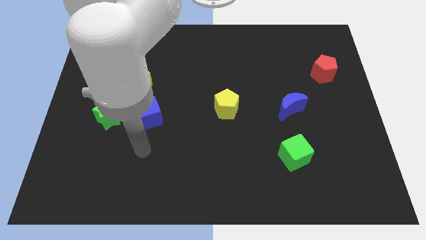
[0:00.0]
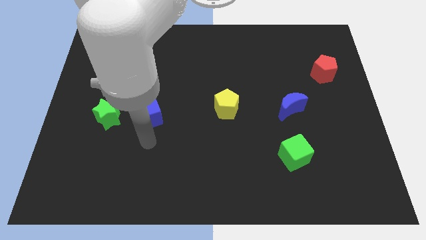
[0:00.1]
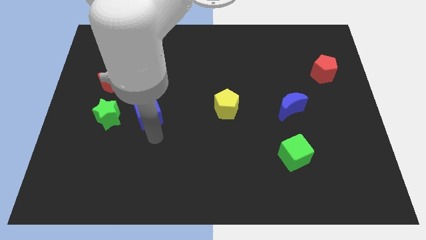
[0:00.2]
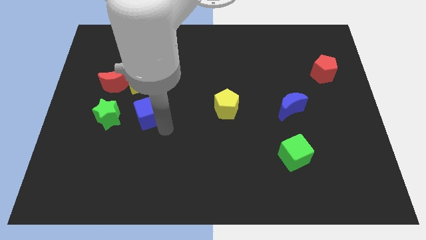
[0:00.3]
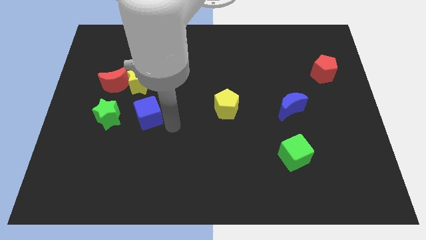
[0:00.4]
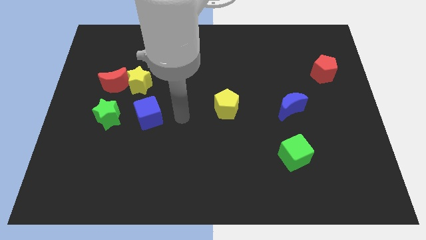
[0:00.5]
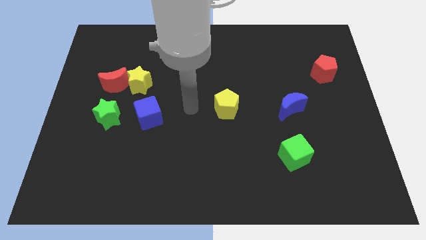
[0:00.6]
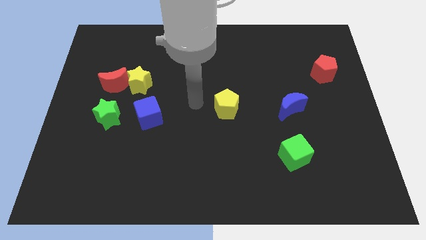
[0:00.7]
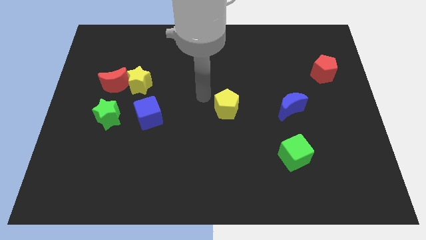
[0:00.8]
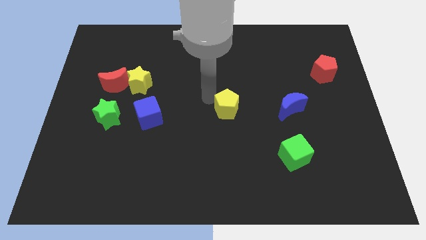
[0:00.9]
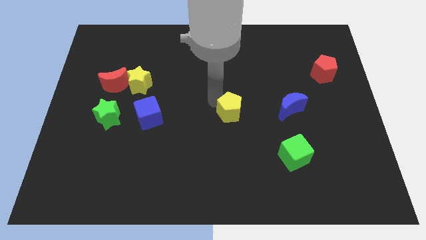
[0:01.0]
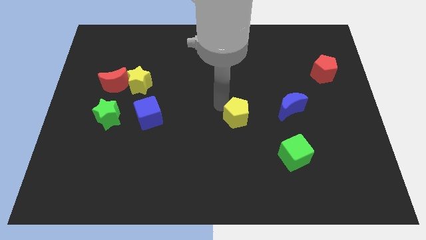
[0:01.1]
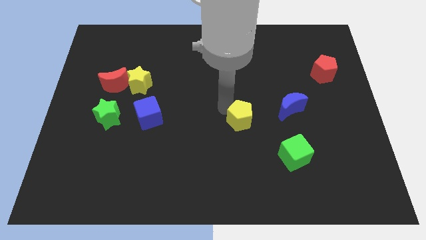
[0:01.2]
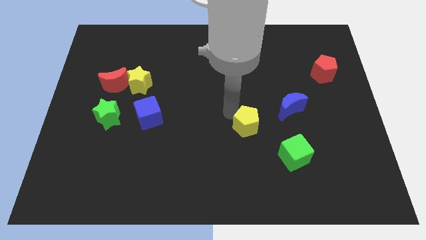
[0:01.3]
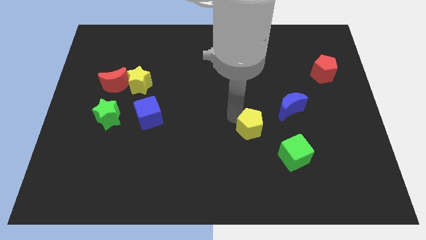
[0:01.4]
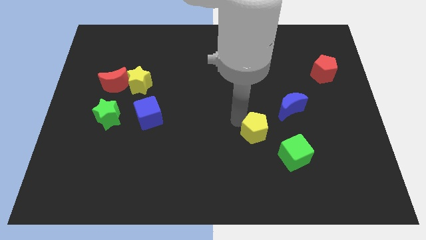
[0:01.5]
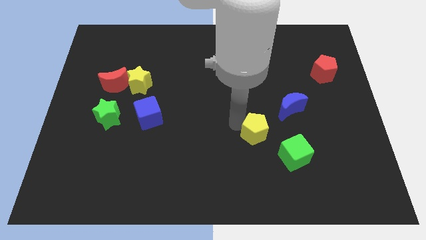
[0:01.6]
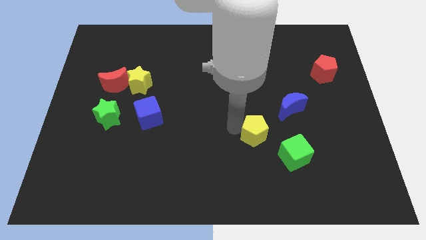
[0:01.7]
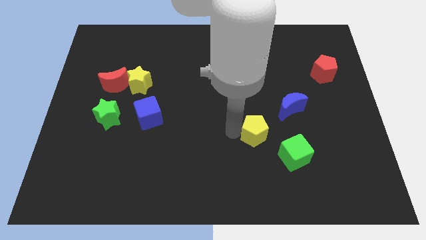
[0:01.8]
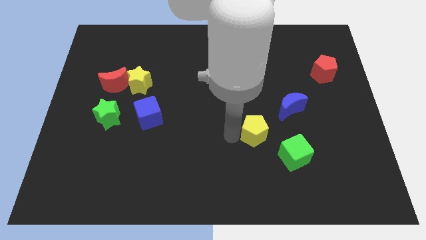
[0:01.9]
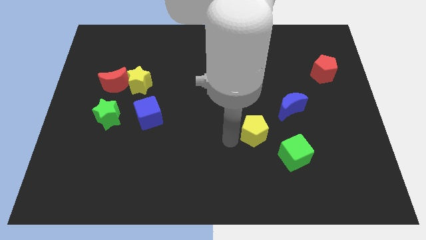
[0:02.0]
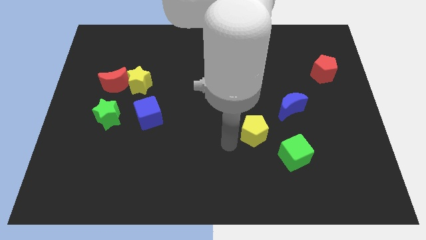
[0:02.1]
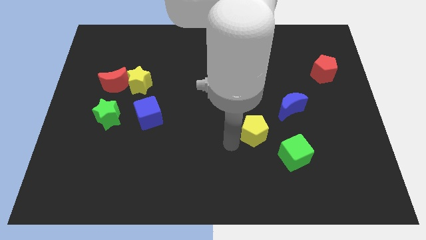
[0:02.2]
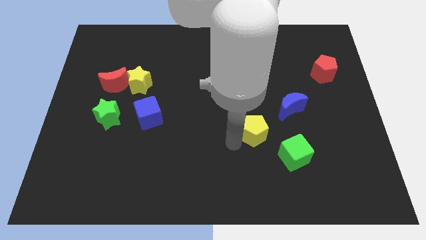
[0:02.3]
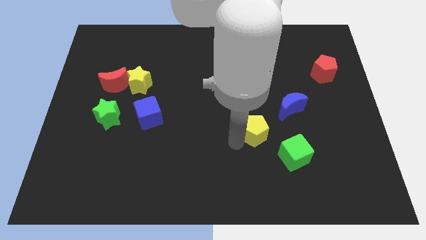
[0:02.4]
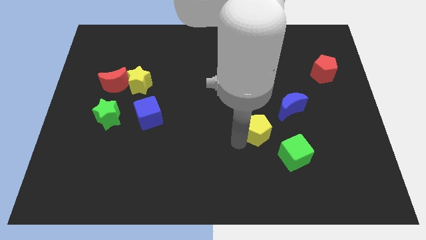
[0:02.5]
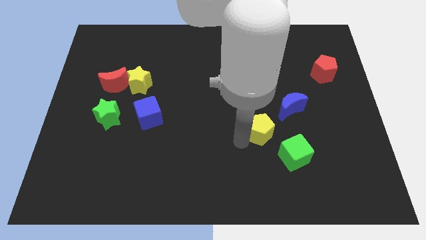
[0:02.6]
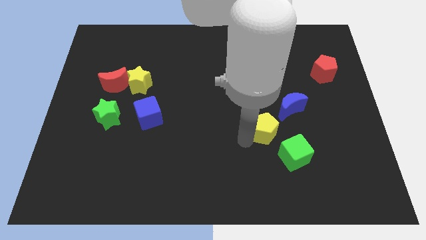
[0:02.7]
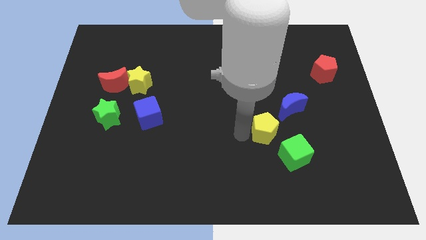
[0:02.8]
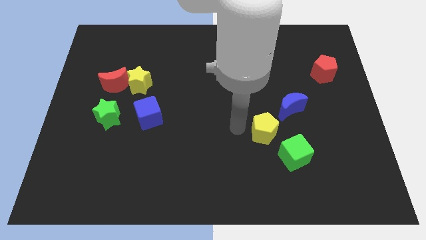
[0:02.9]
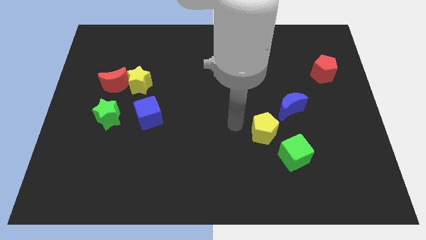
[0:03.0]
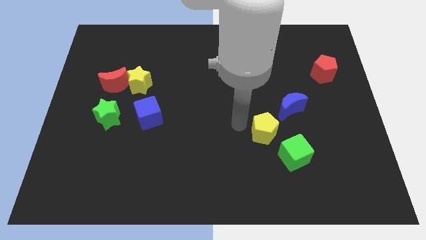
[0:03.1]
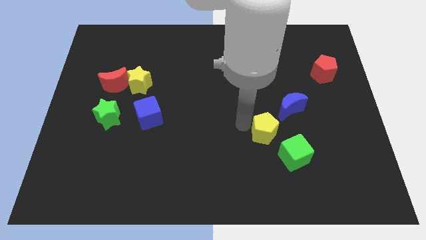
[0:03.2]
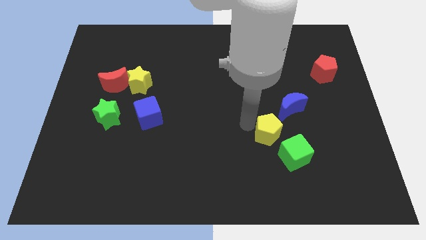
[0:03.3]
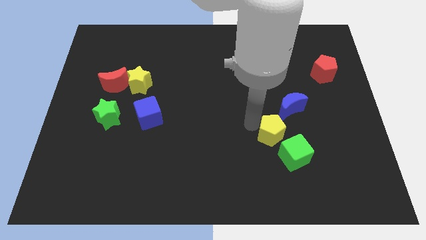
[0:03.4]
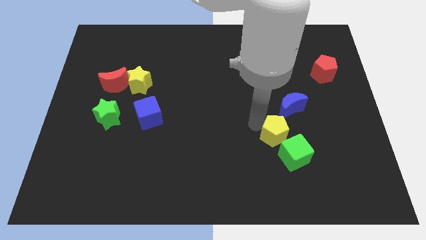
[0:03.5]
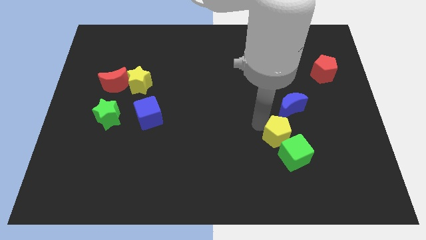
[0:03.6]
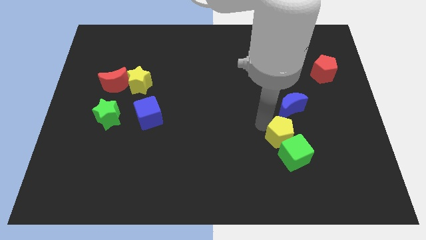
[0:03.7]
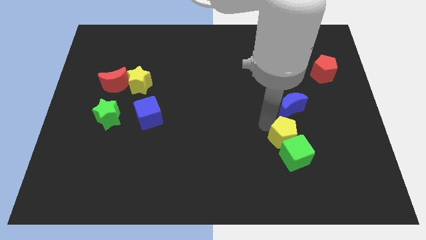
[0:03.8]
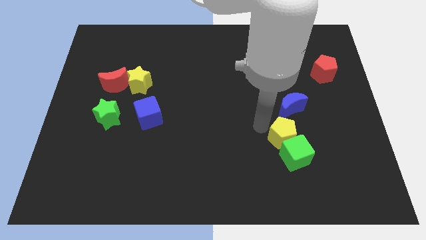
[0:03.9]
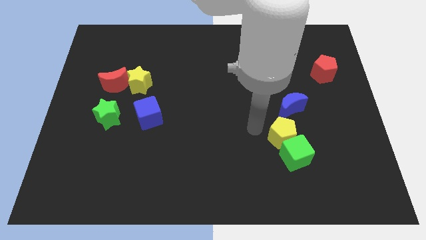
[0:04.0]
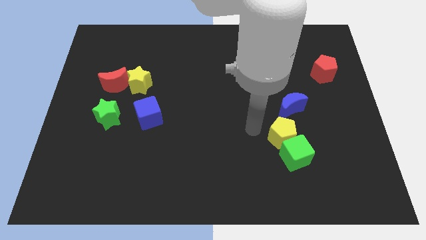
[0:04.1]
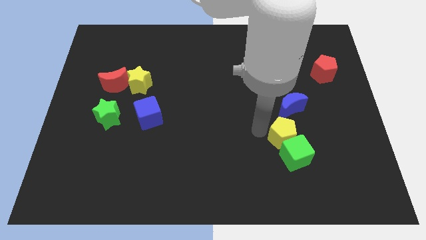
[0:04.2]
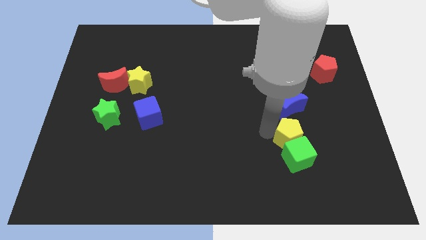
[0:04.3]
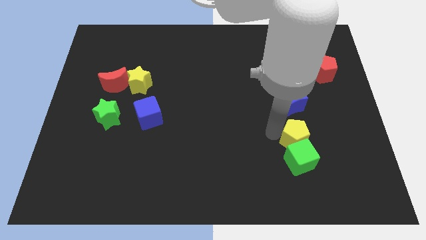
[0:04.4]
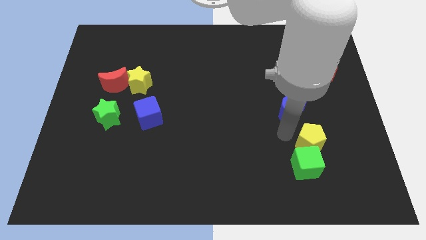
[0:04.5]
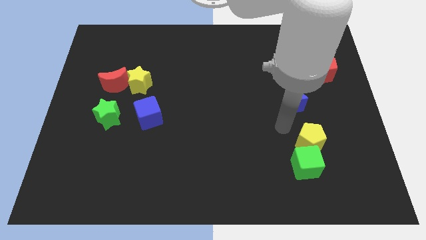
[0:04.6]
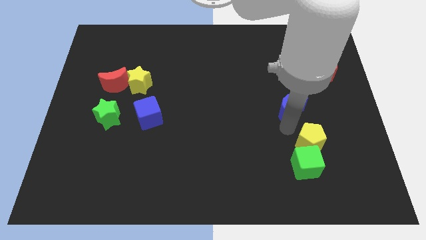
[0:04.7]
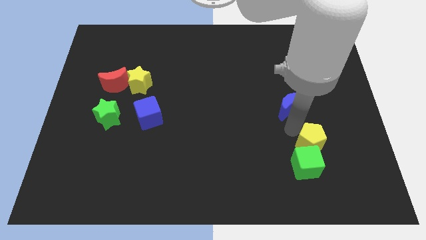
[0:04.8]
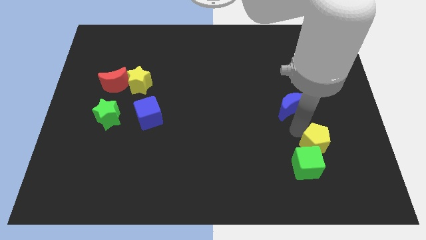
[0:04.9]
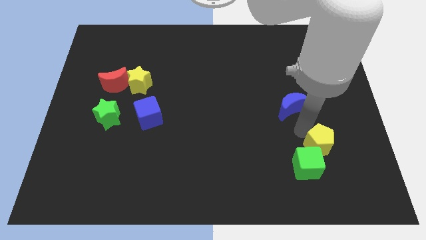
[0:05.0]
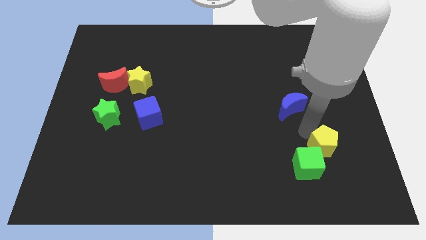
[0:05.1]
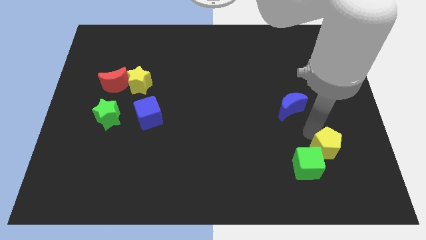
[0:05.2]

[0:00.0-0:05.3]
slide the yellow pentagon right of the green cube

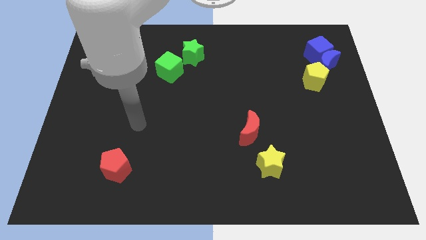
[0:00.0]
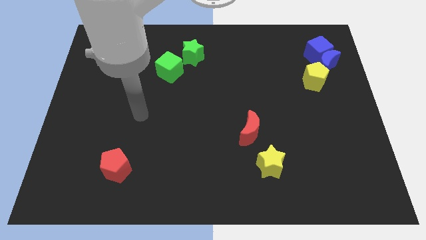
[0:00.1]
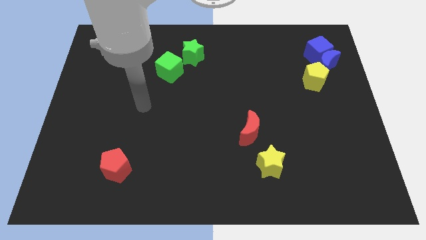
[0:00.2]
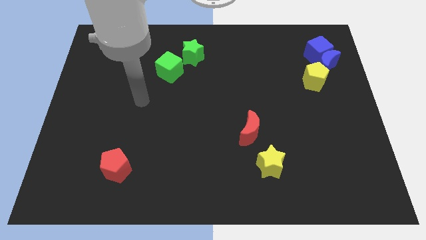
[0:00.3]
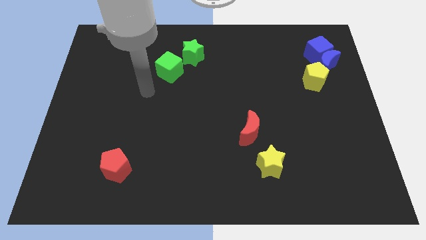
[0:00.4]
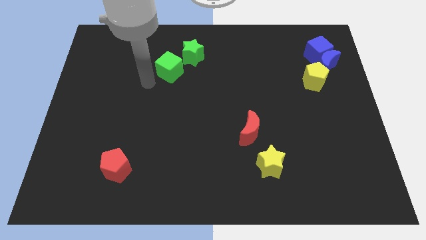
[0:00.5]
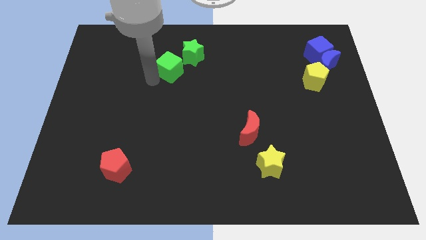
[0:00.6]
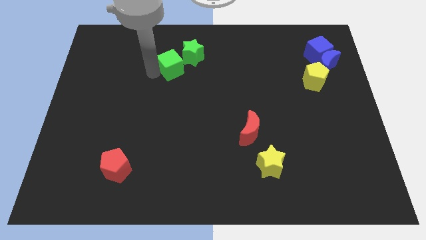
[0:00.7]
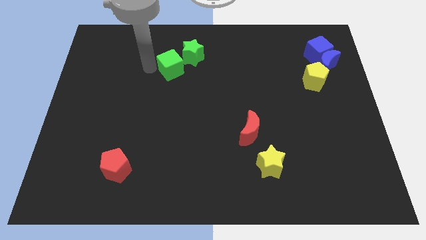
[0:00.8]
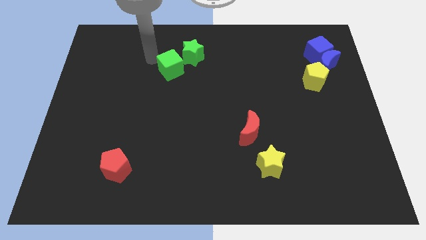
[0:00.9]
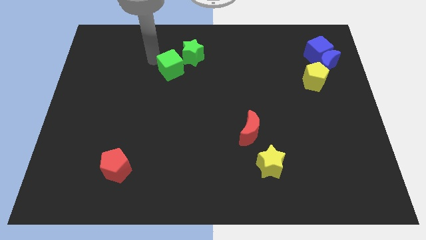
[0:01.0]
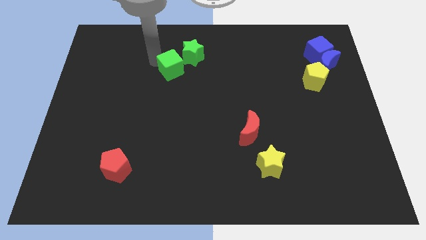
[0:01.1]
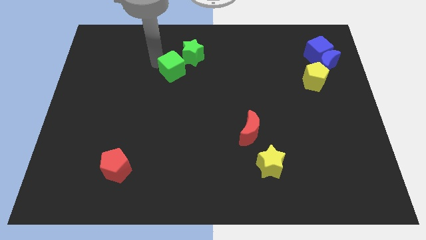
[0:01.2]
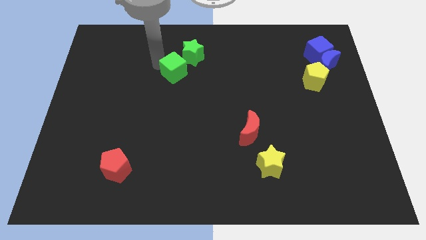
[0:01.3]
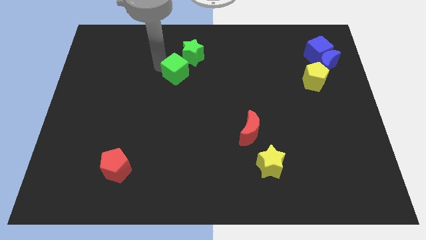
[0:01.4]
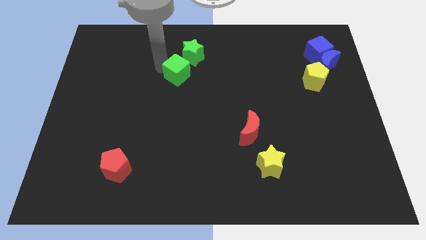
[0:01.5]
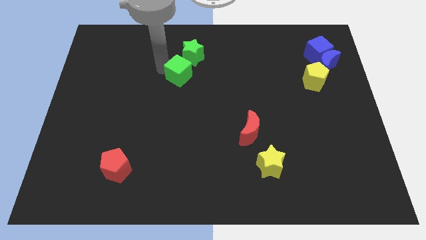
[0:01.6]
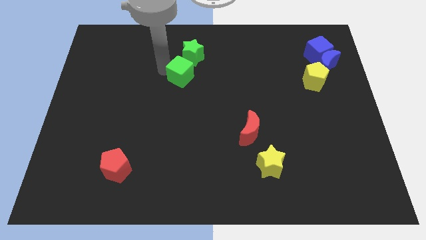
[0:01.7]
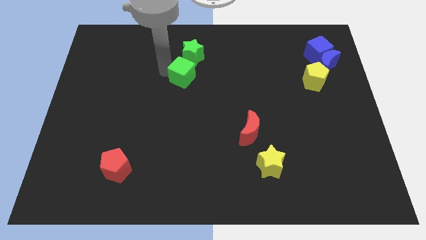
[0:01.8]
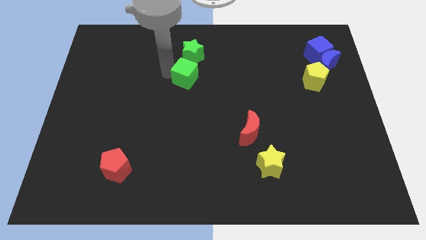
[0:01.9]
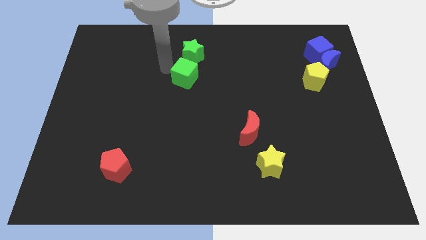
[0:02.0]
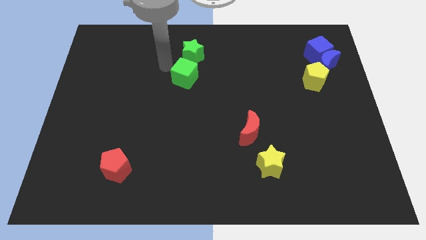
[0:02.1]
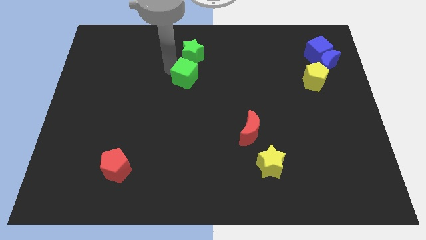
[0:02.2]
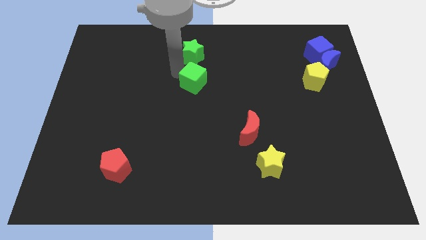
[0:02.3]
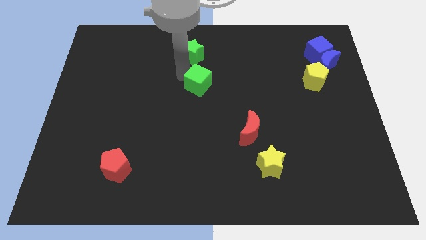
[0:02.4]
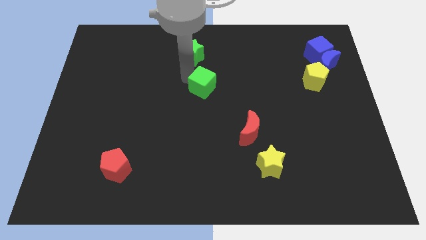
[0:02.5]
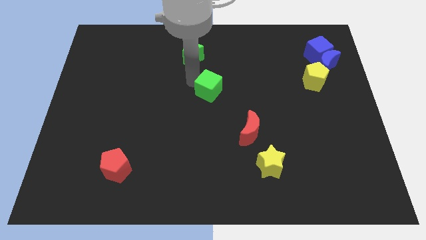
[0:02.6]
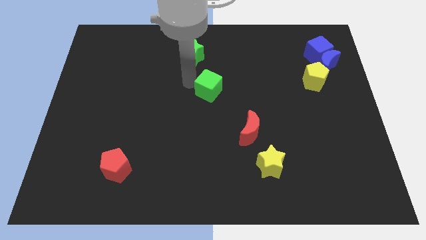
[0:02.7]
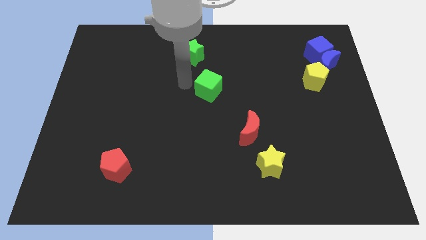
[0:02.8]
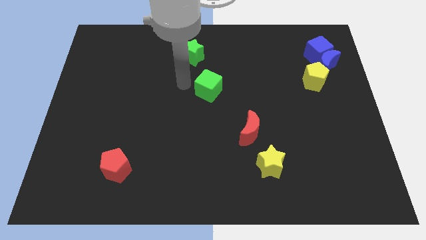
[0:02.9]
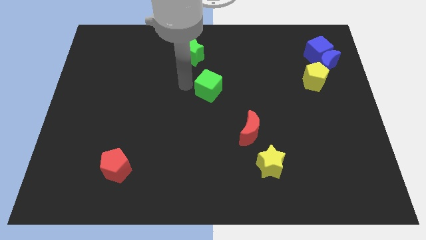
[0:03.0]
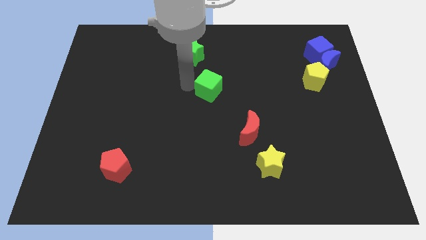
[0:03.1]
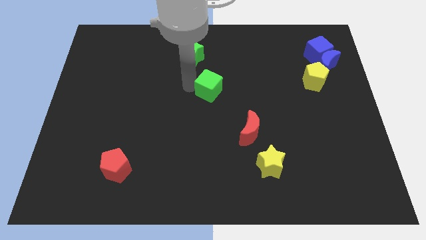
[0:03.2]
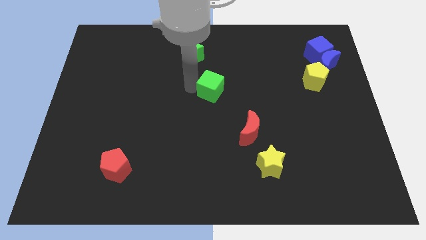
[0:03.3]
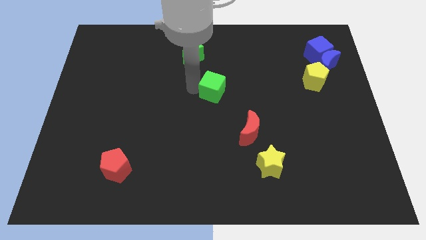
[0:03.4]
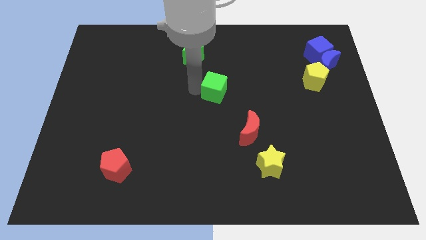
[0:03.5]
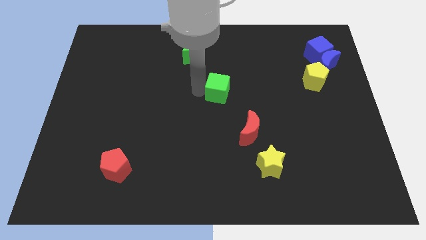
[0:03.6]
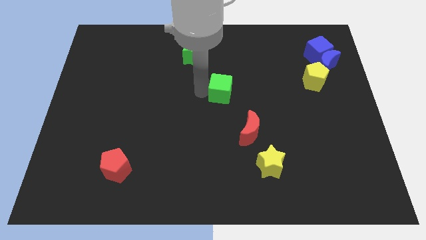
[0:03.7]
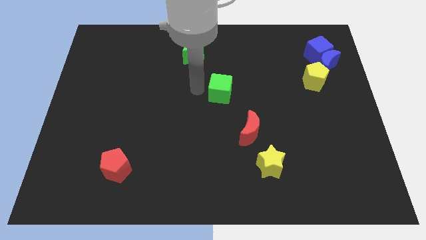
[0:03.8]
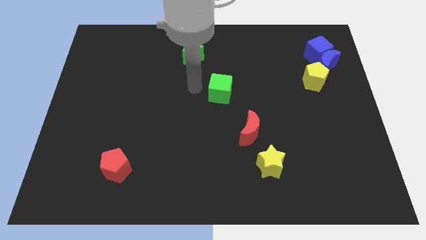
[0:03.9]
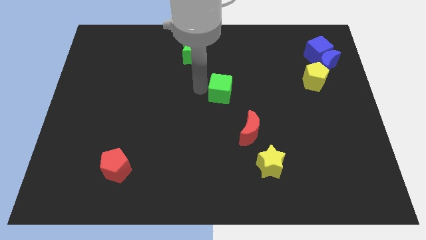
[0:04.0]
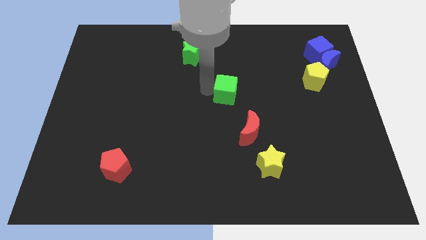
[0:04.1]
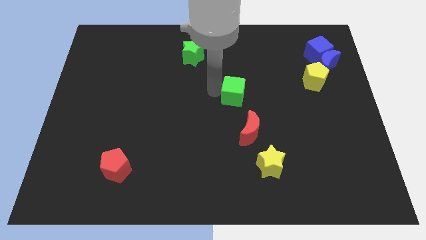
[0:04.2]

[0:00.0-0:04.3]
put the green cube above the red moon
